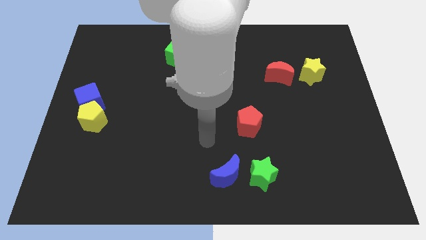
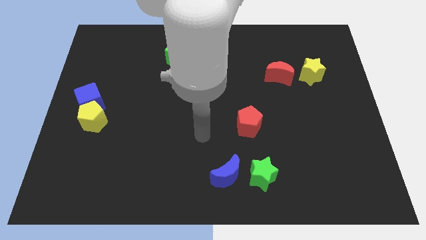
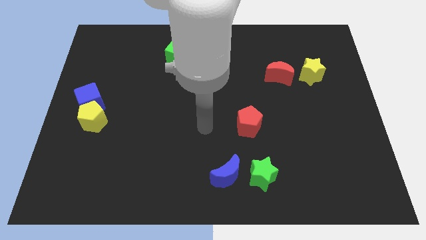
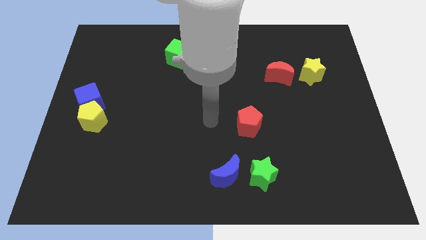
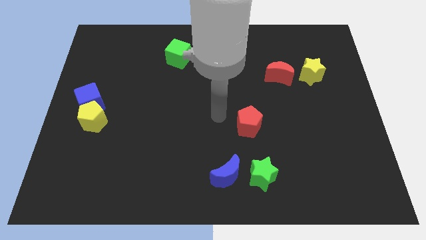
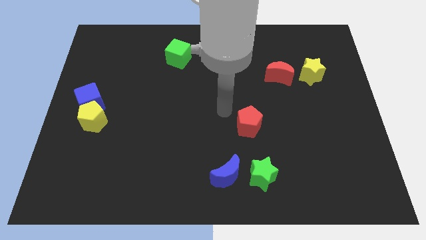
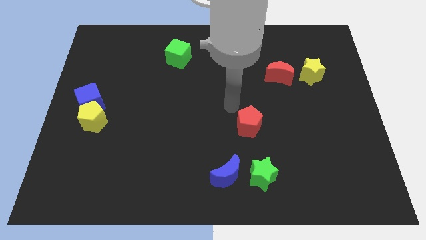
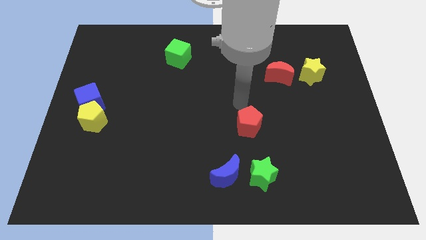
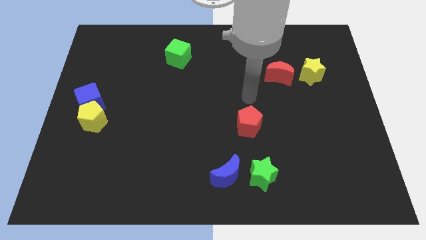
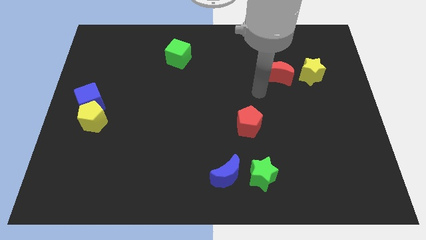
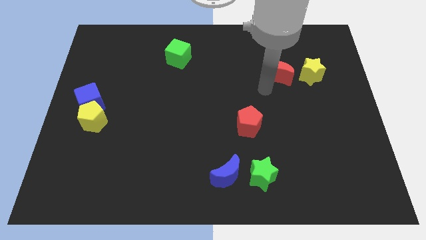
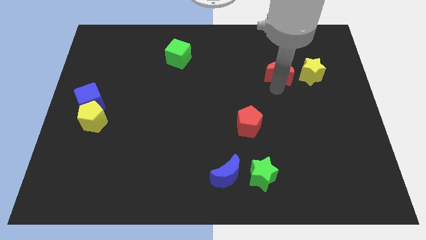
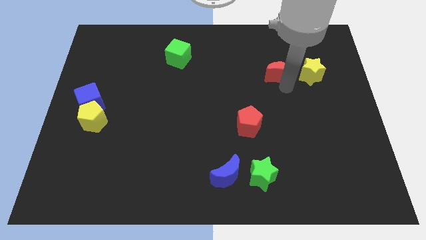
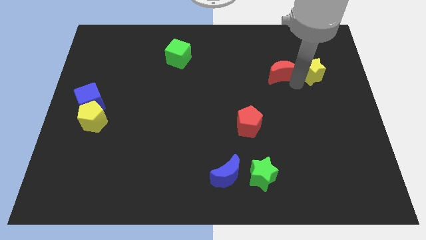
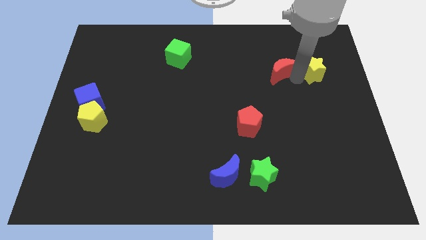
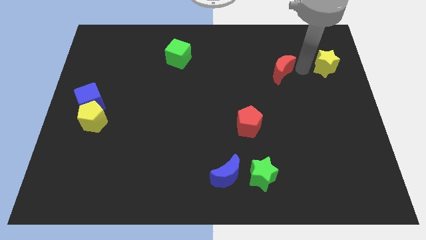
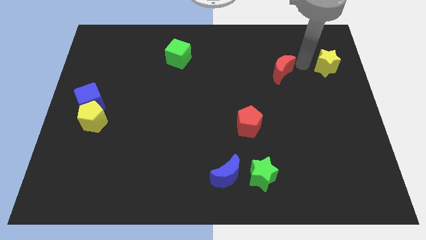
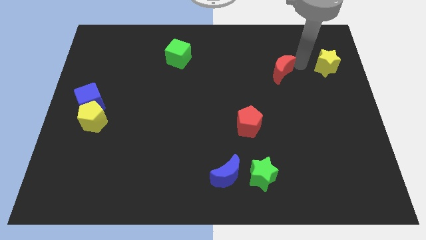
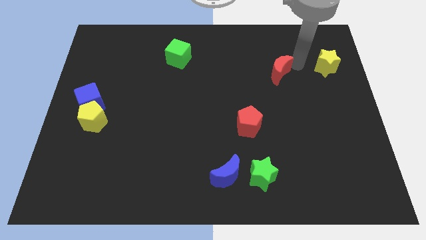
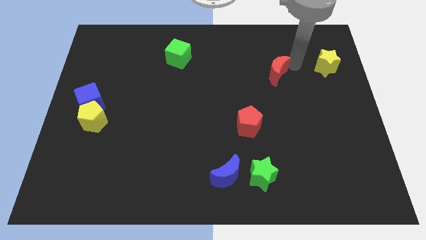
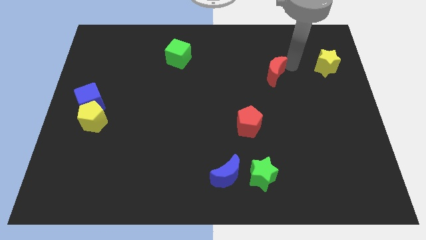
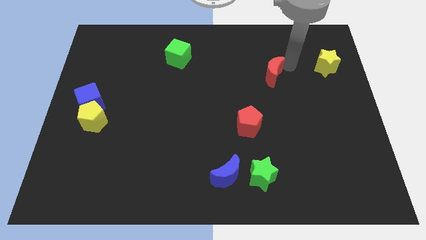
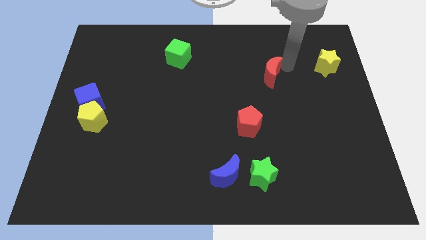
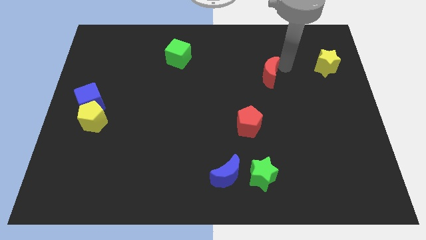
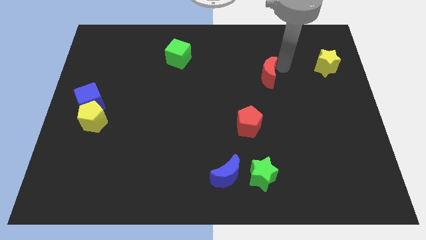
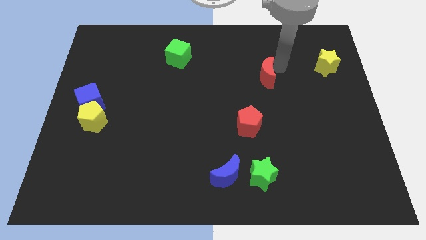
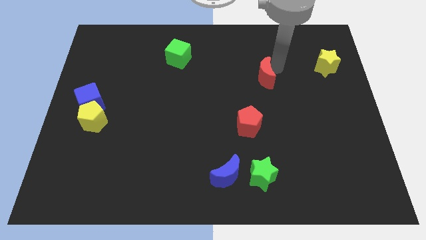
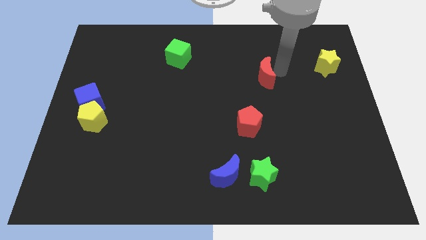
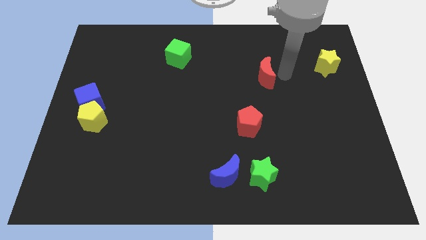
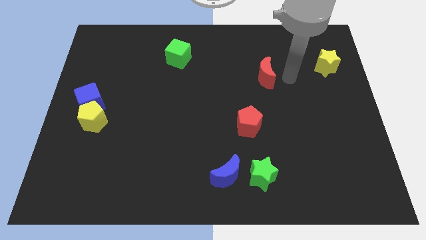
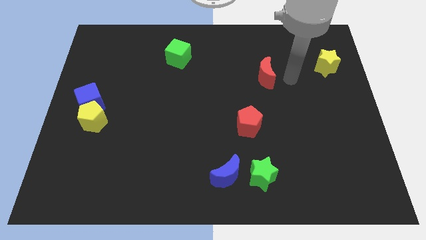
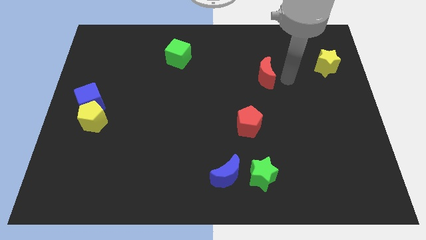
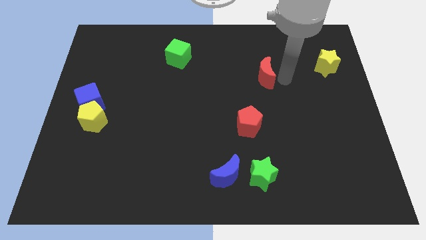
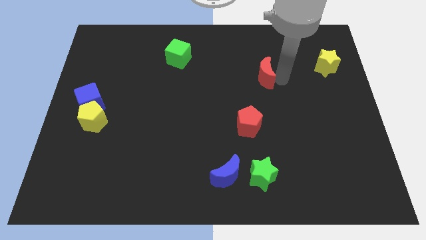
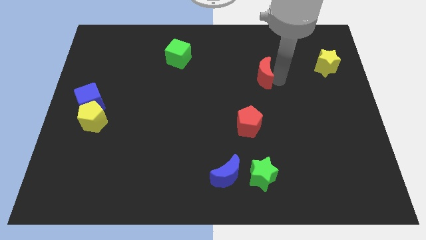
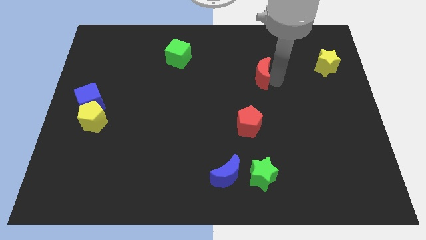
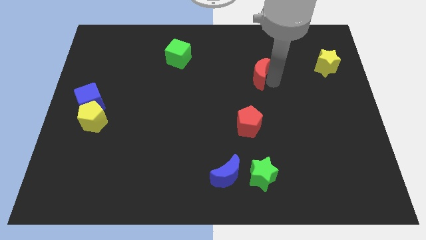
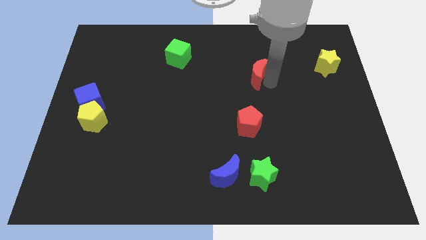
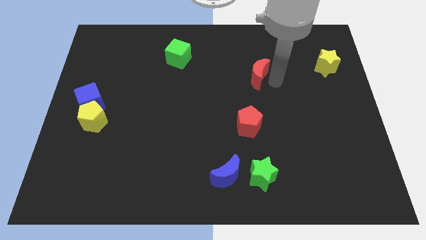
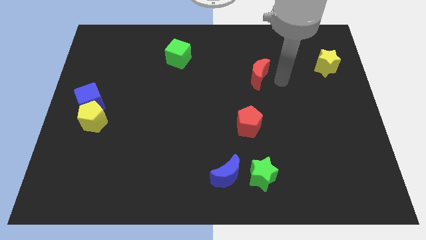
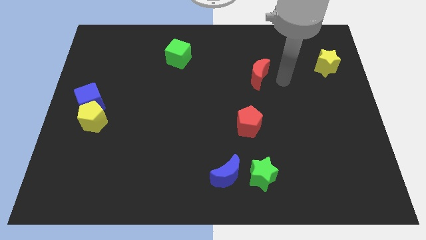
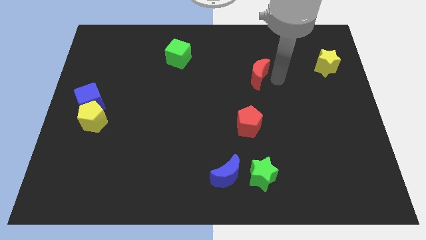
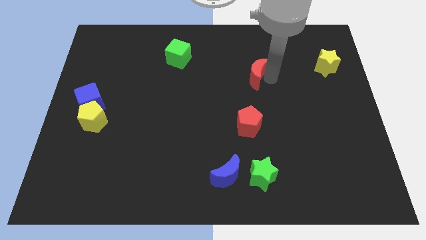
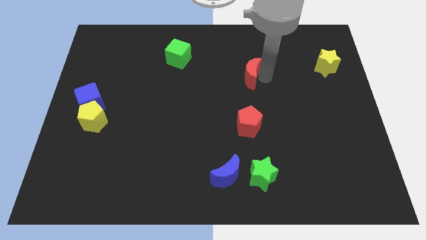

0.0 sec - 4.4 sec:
slightly push the red moon left

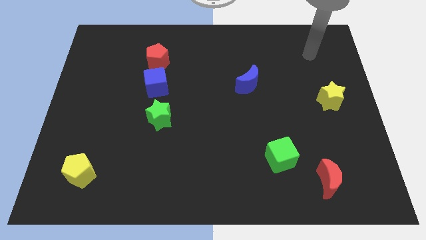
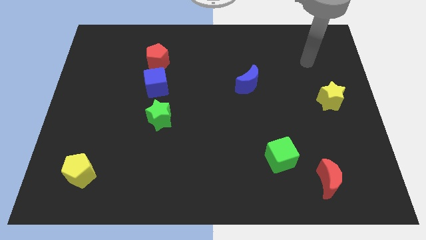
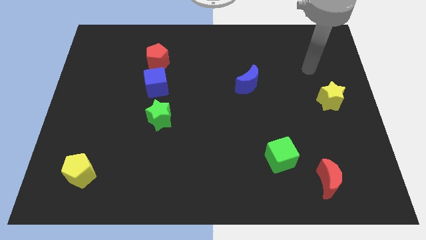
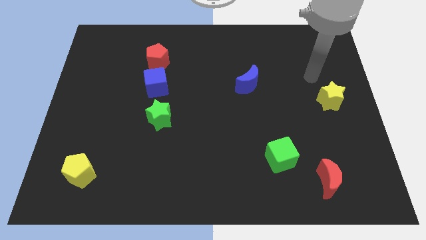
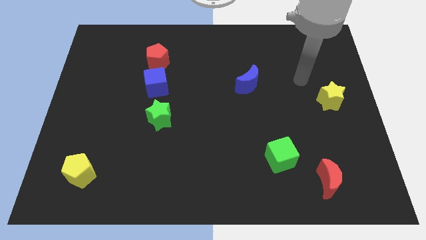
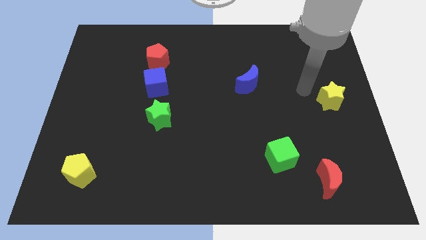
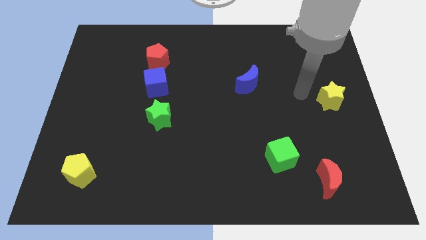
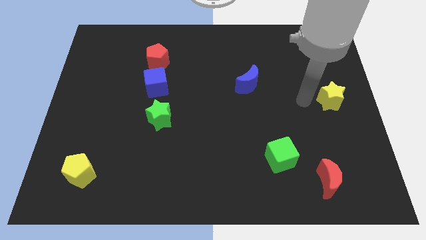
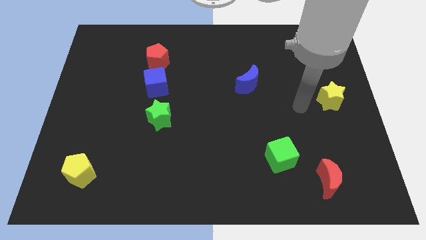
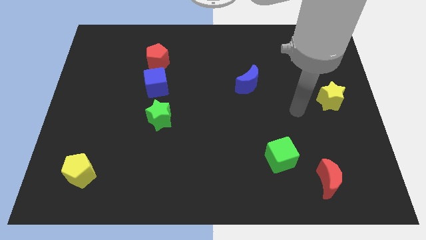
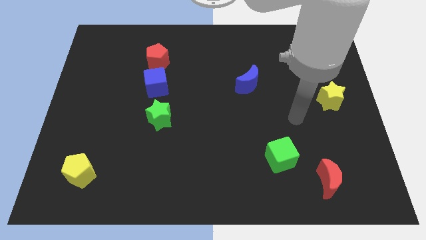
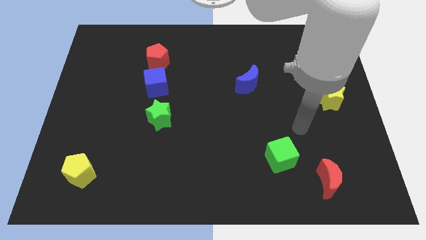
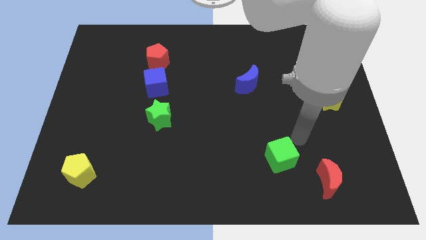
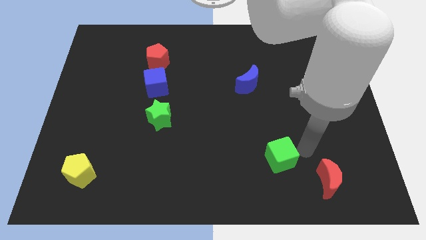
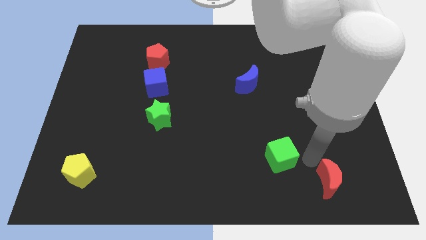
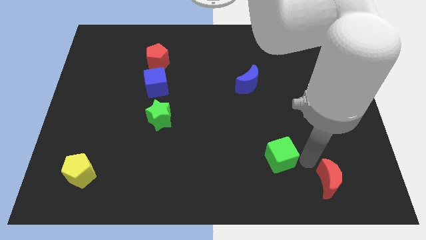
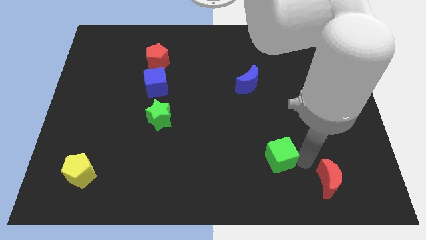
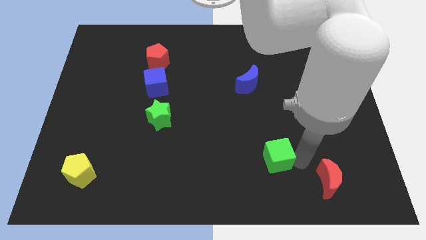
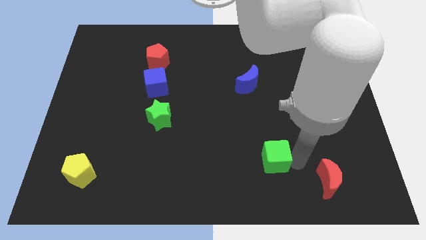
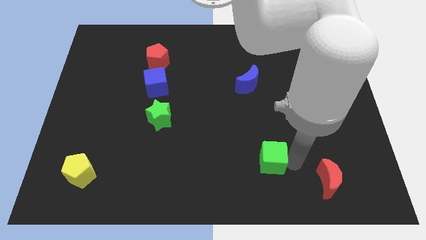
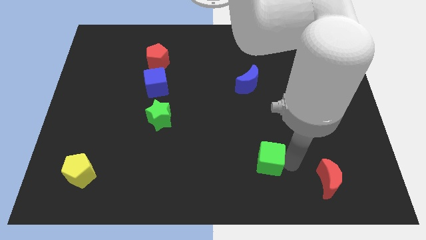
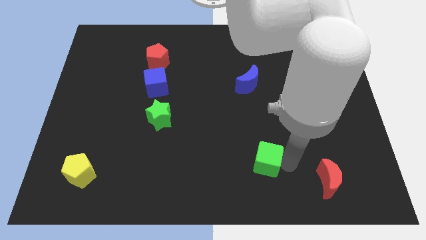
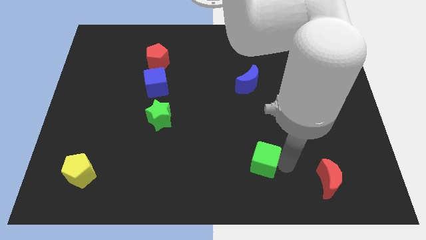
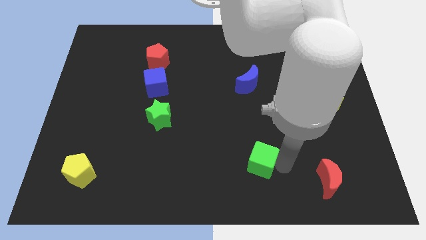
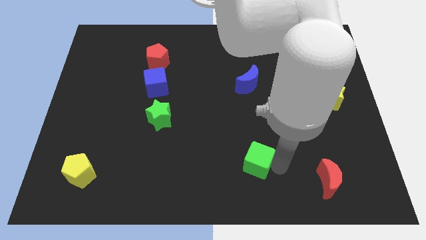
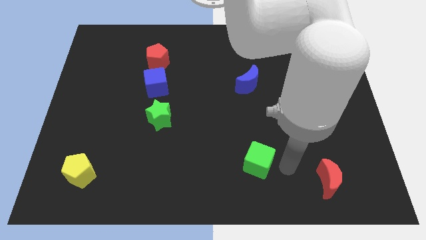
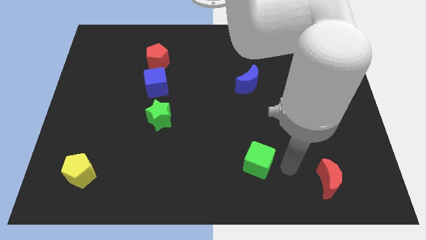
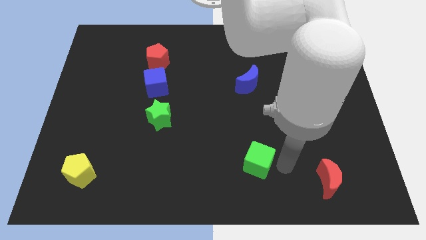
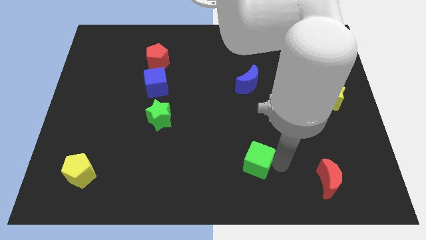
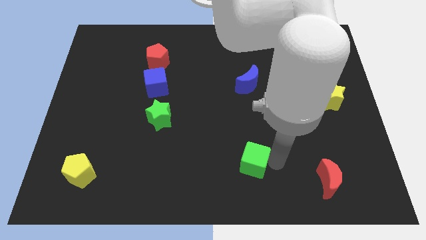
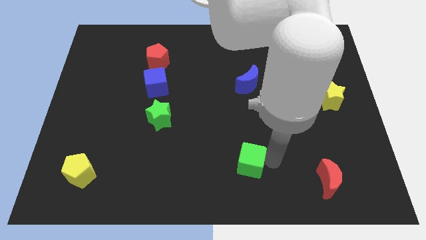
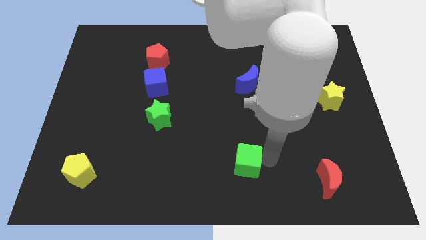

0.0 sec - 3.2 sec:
slightly slide the green cube left

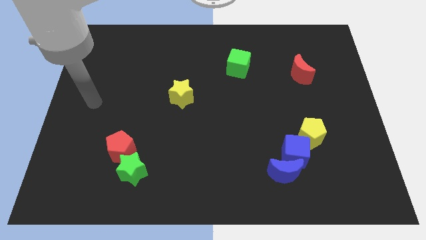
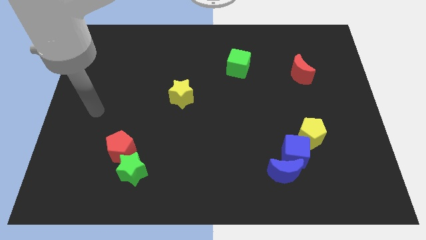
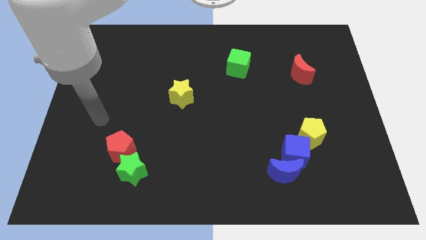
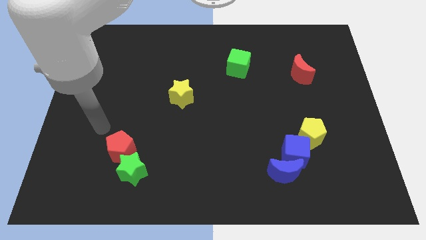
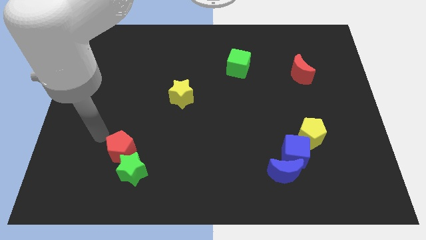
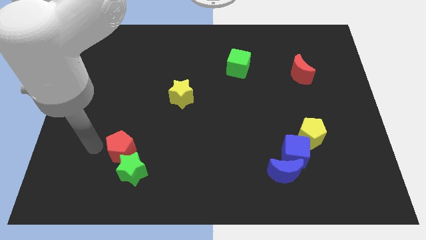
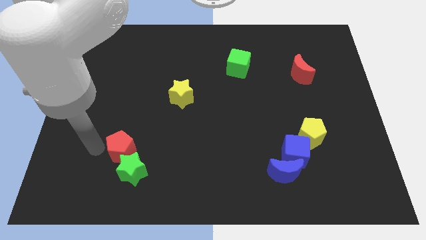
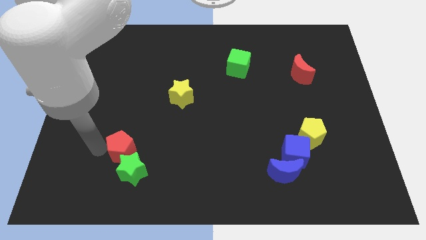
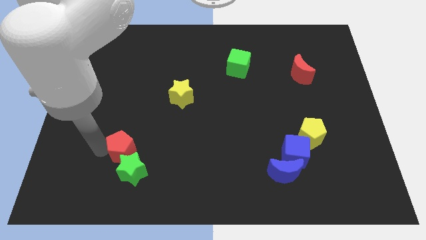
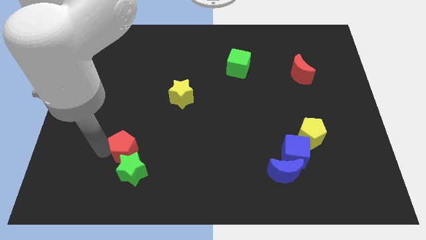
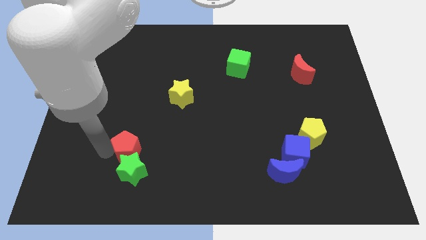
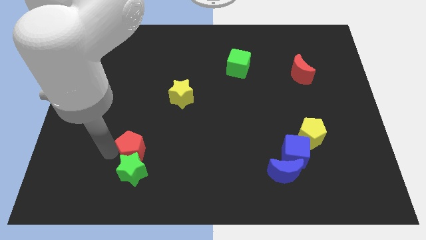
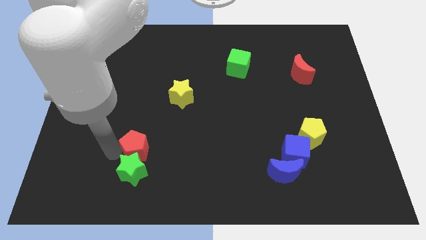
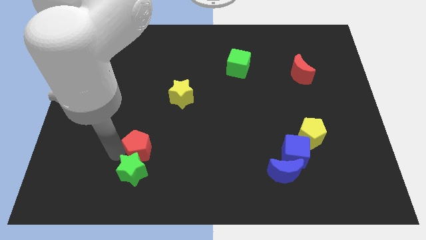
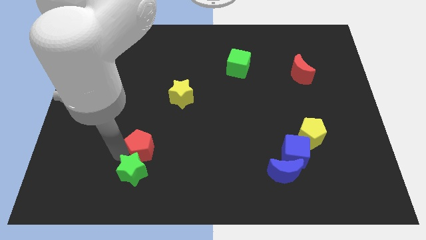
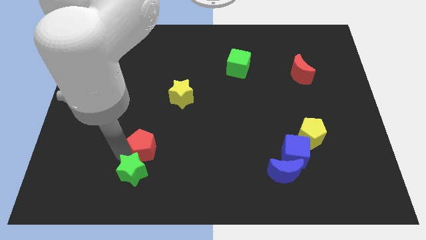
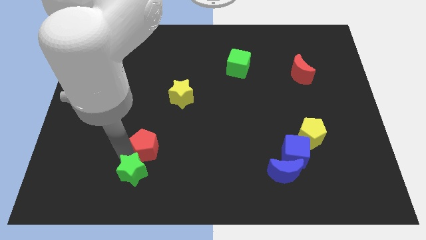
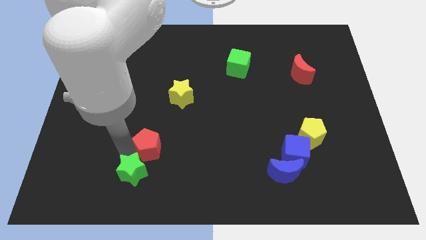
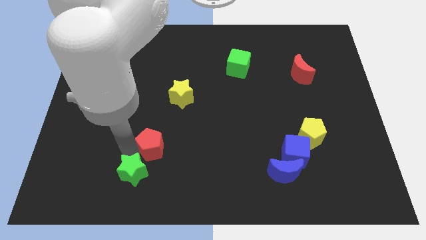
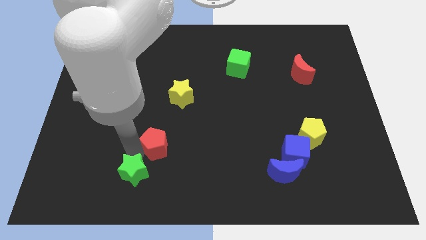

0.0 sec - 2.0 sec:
slide the red pentagon slightly right
